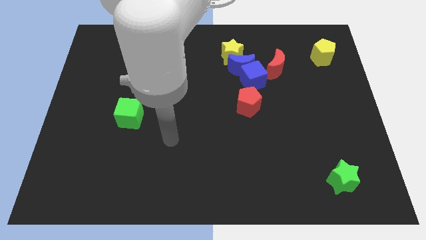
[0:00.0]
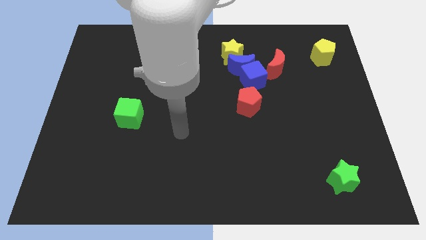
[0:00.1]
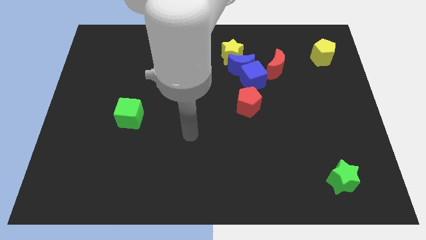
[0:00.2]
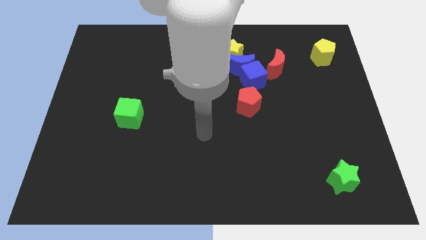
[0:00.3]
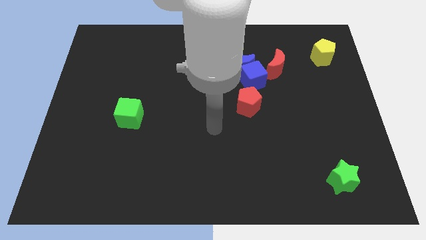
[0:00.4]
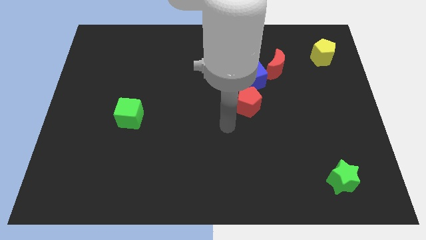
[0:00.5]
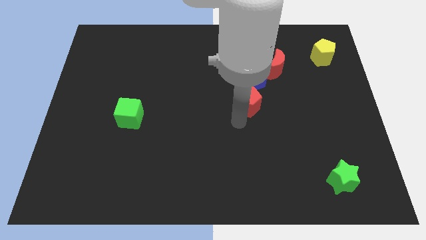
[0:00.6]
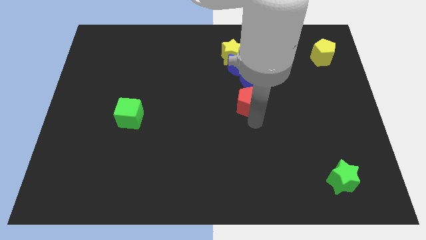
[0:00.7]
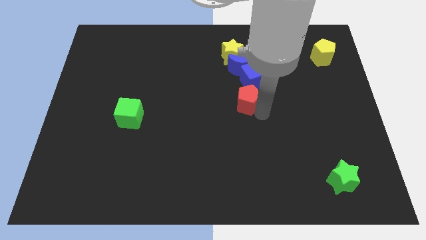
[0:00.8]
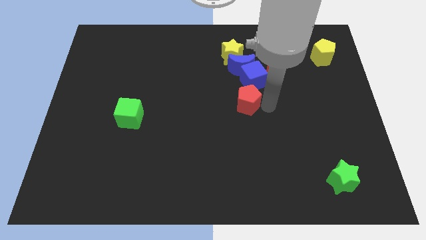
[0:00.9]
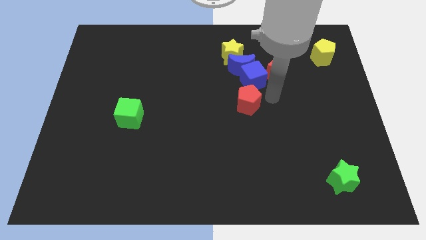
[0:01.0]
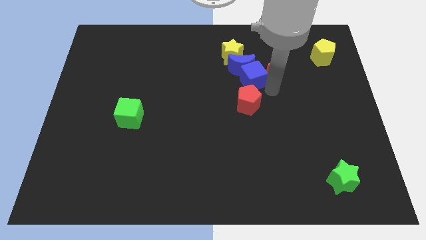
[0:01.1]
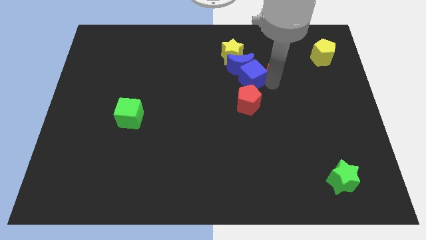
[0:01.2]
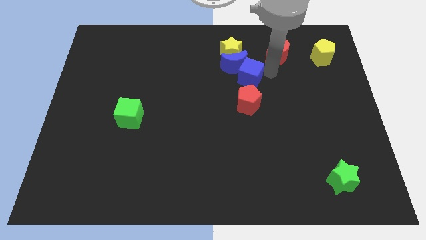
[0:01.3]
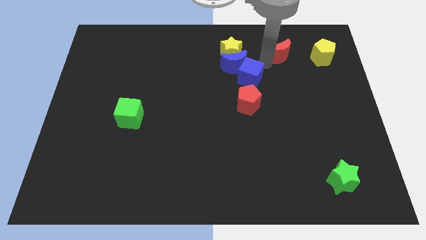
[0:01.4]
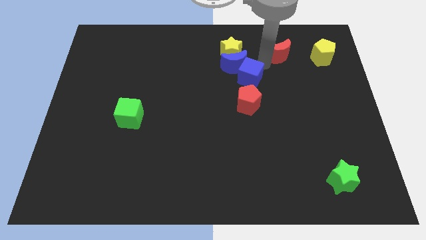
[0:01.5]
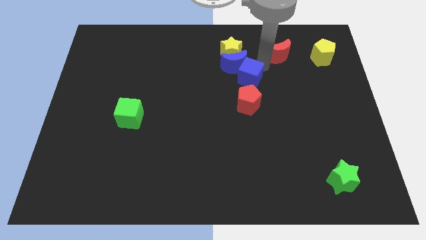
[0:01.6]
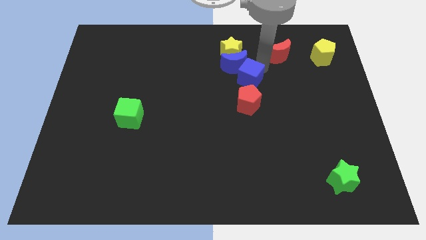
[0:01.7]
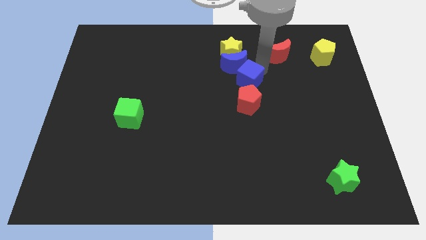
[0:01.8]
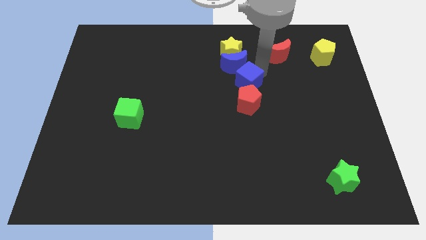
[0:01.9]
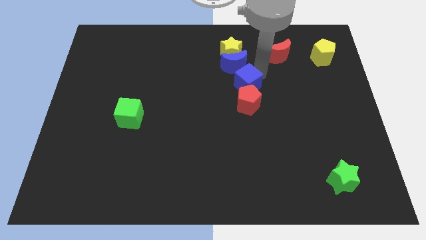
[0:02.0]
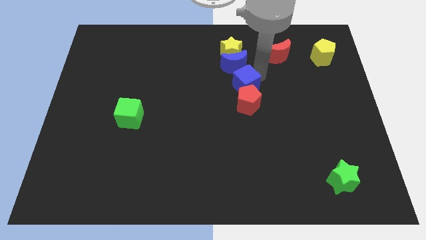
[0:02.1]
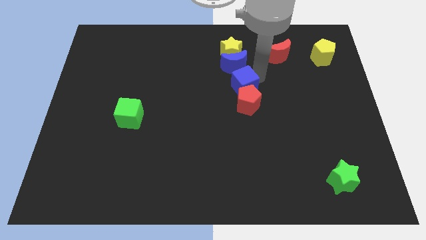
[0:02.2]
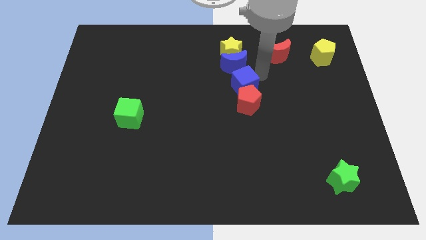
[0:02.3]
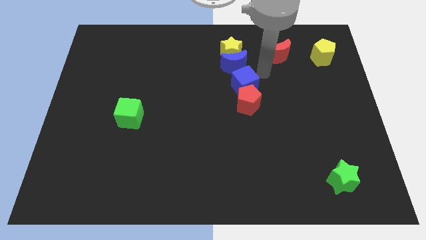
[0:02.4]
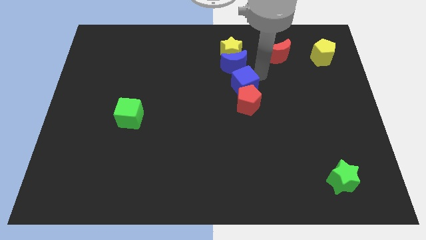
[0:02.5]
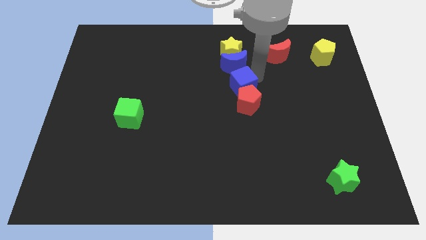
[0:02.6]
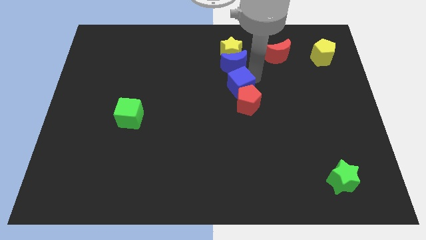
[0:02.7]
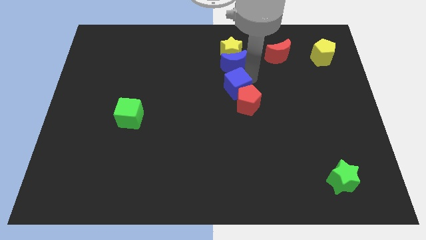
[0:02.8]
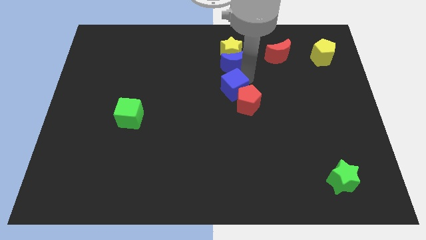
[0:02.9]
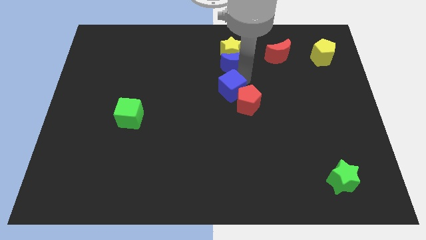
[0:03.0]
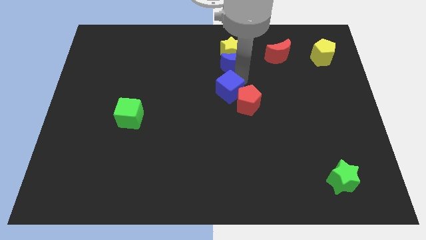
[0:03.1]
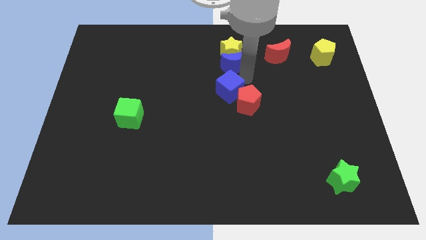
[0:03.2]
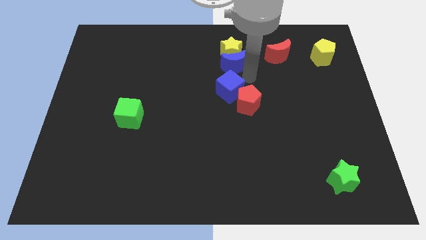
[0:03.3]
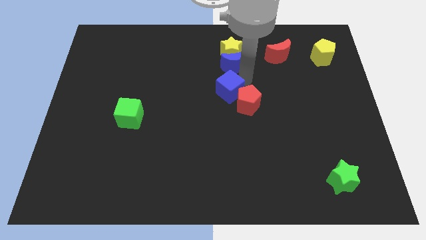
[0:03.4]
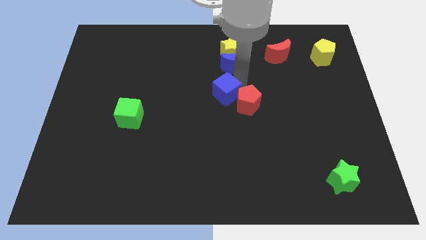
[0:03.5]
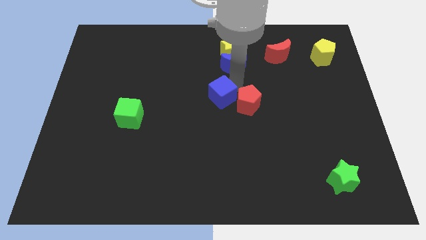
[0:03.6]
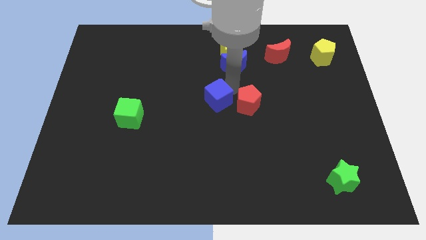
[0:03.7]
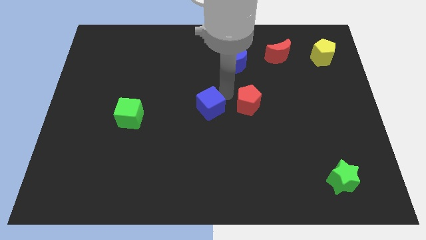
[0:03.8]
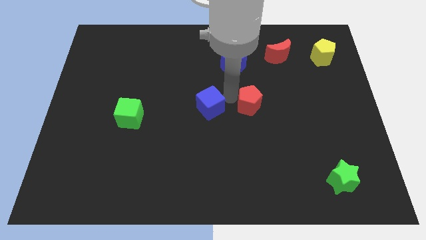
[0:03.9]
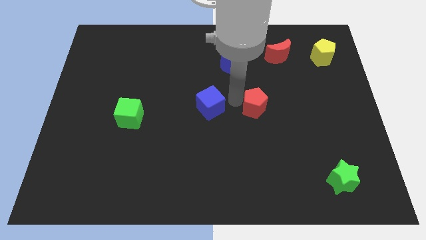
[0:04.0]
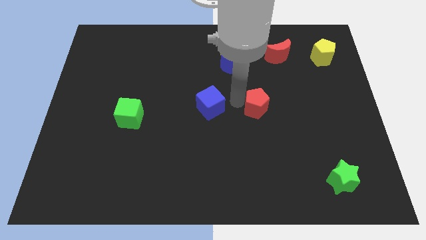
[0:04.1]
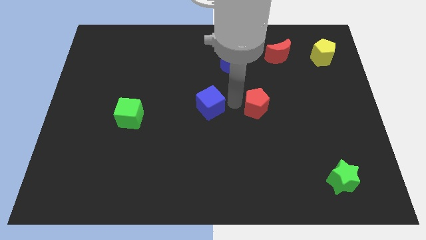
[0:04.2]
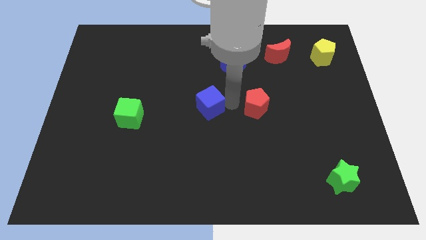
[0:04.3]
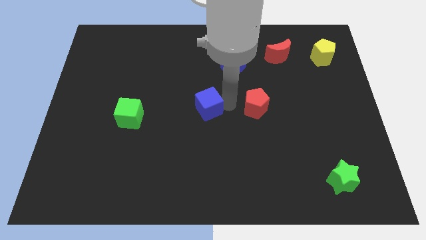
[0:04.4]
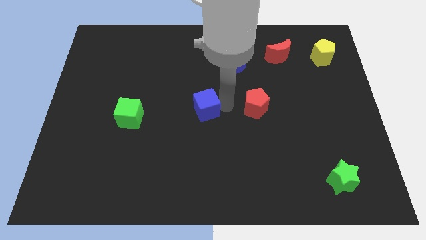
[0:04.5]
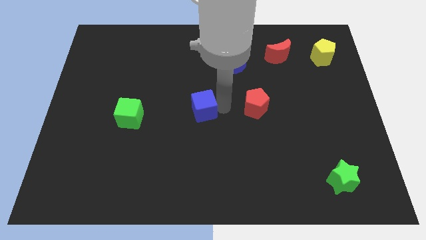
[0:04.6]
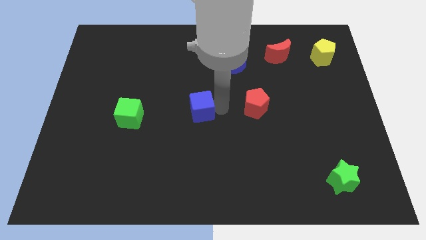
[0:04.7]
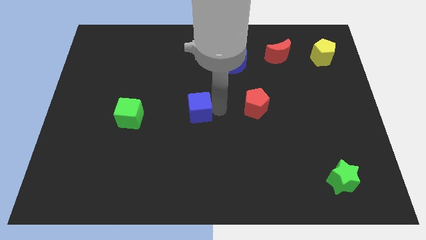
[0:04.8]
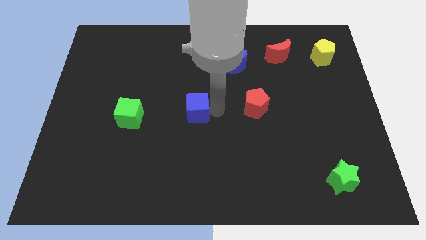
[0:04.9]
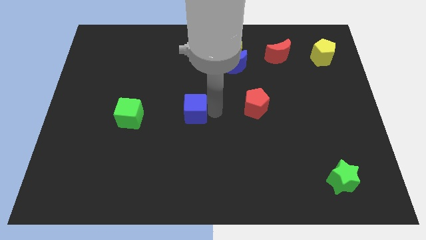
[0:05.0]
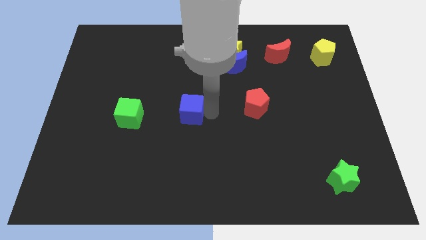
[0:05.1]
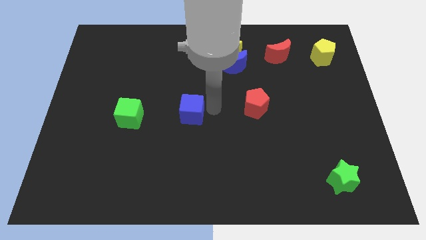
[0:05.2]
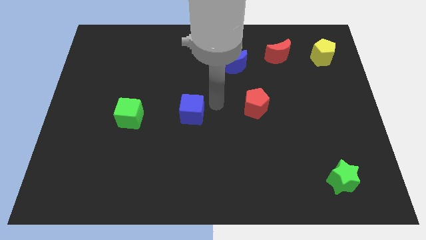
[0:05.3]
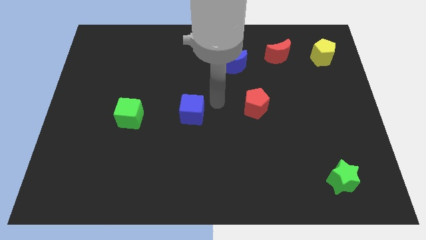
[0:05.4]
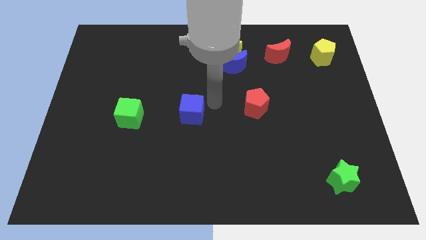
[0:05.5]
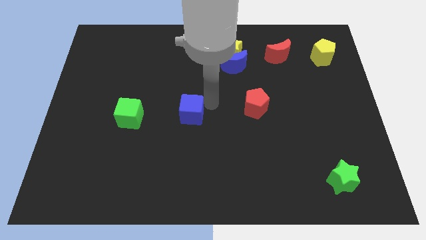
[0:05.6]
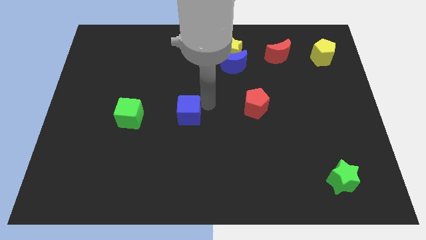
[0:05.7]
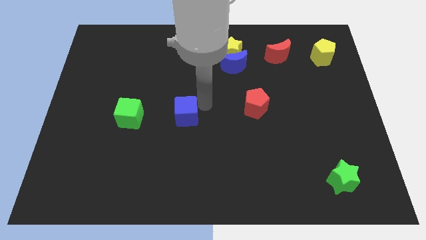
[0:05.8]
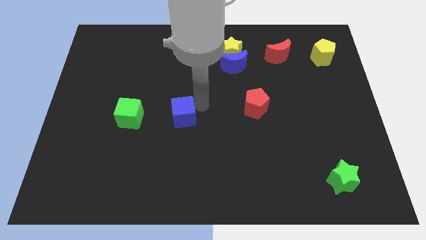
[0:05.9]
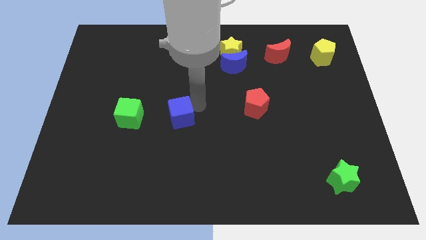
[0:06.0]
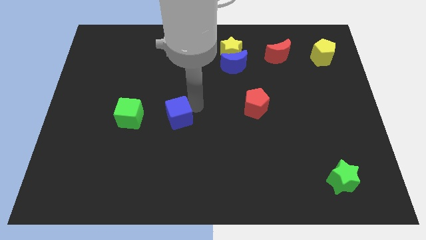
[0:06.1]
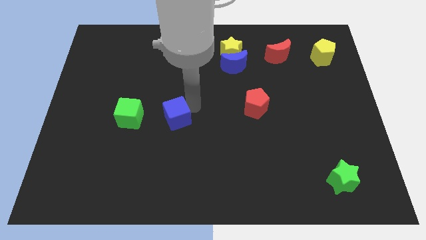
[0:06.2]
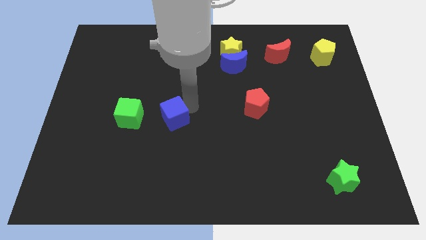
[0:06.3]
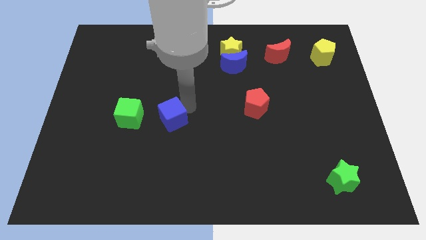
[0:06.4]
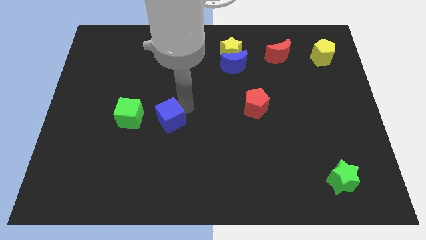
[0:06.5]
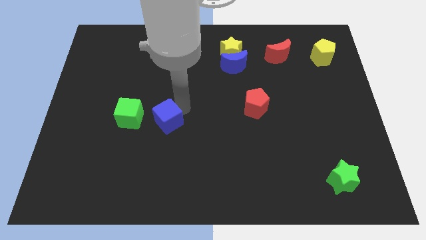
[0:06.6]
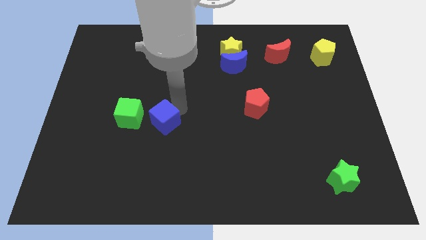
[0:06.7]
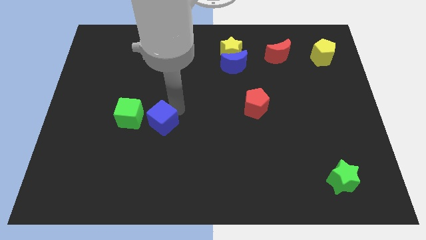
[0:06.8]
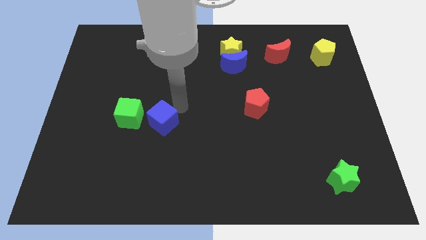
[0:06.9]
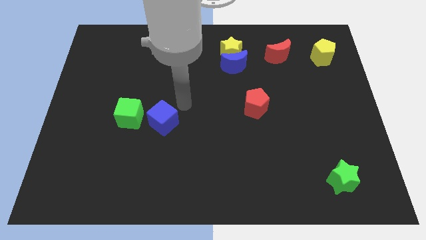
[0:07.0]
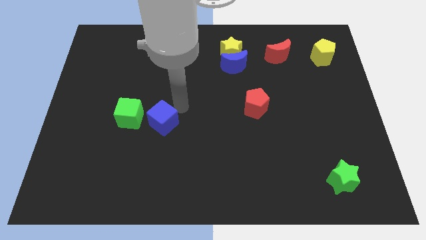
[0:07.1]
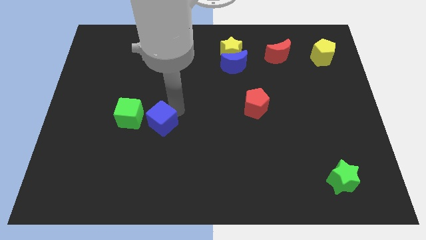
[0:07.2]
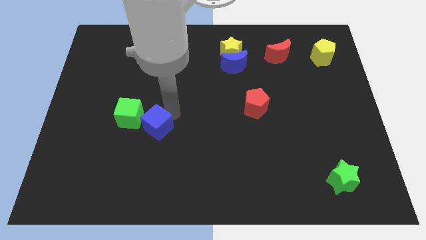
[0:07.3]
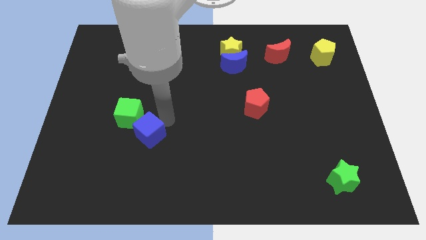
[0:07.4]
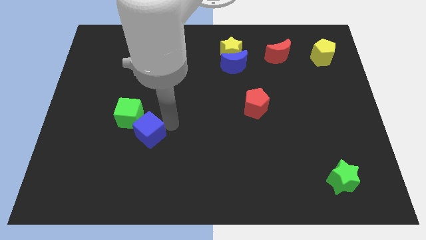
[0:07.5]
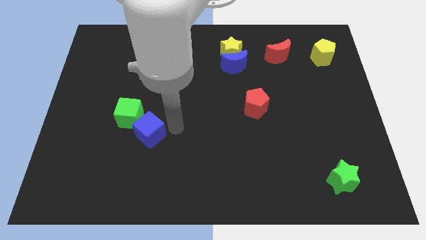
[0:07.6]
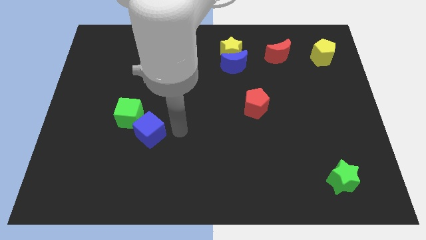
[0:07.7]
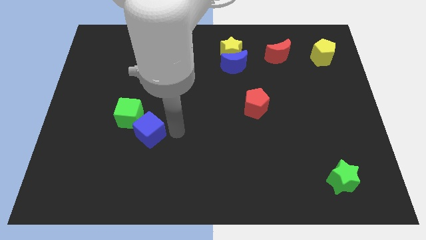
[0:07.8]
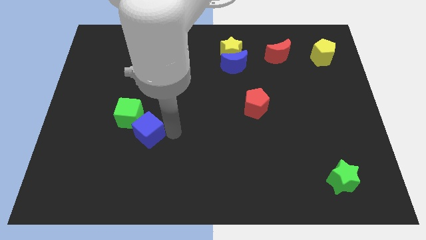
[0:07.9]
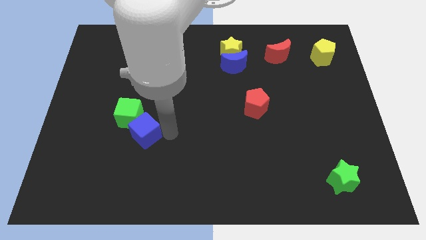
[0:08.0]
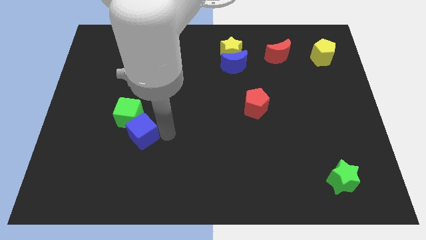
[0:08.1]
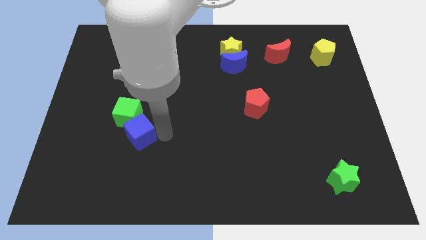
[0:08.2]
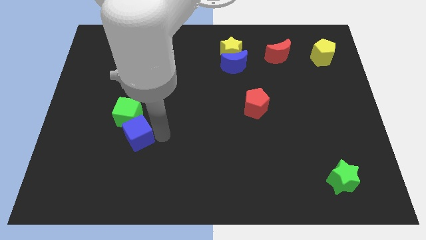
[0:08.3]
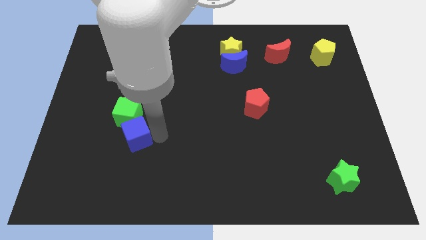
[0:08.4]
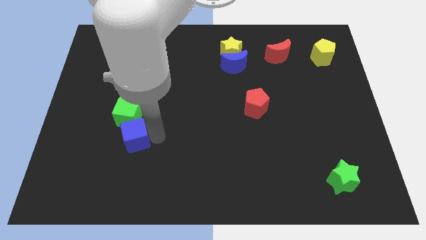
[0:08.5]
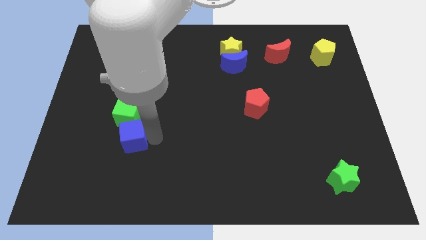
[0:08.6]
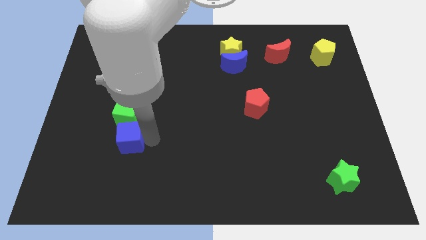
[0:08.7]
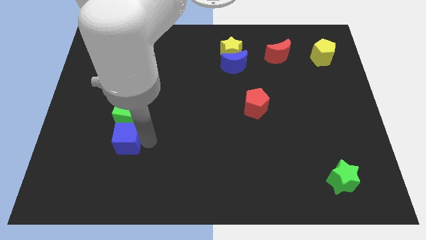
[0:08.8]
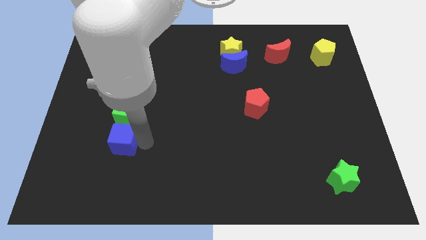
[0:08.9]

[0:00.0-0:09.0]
push the blue cube diagonally down and to the left of the green cube
